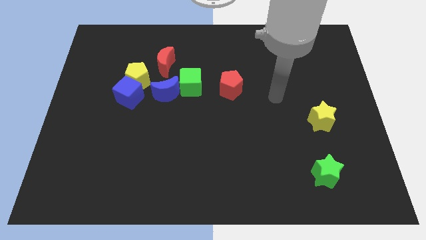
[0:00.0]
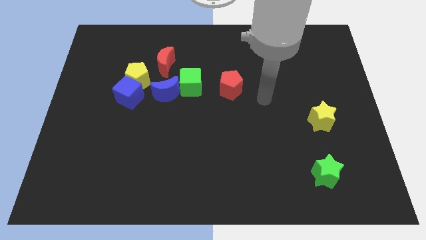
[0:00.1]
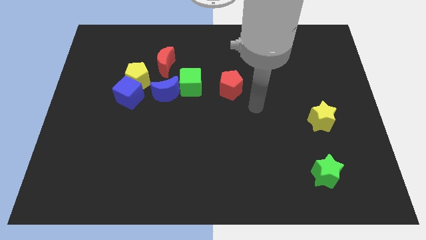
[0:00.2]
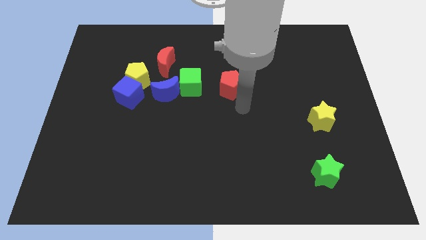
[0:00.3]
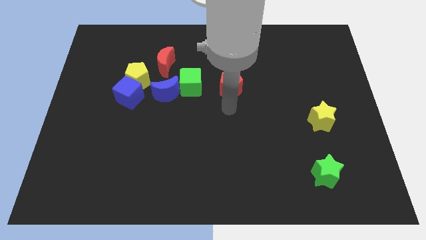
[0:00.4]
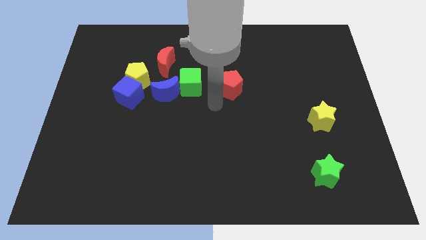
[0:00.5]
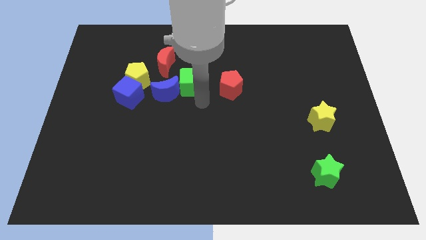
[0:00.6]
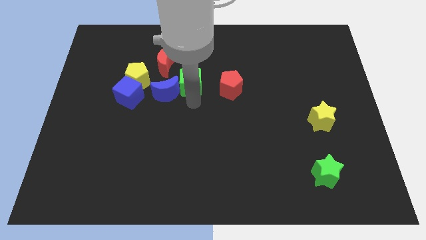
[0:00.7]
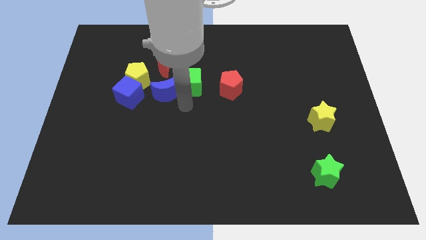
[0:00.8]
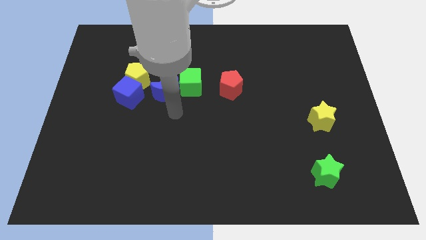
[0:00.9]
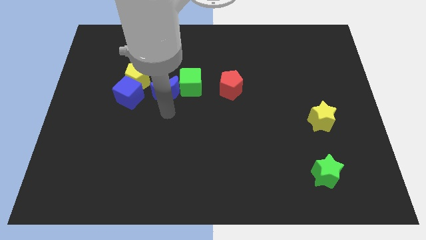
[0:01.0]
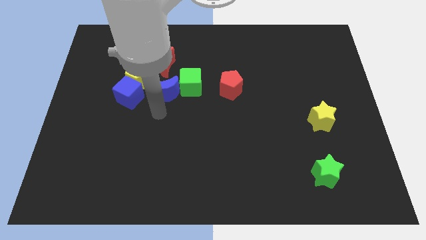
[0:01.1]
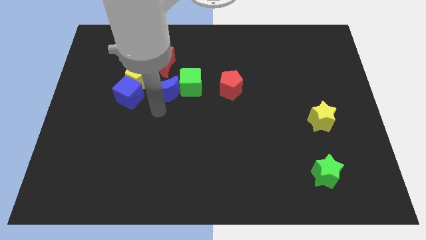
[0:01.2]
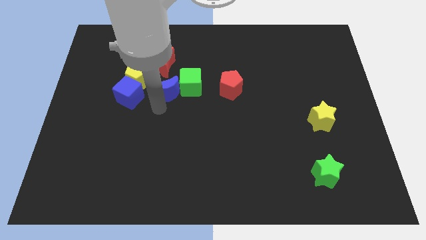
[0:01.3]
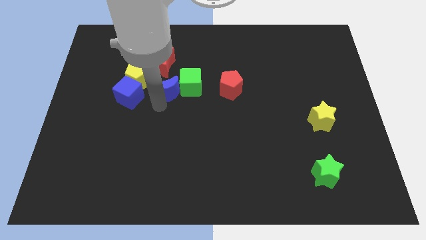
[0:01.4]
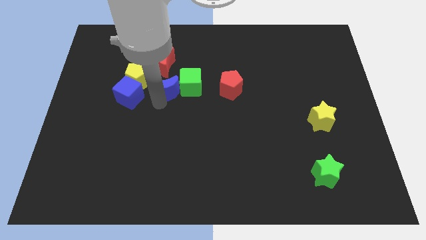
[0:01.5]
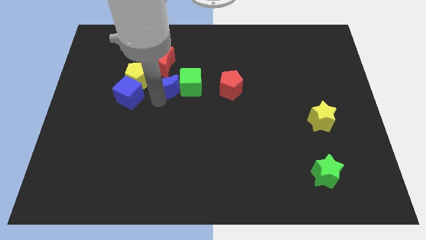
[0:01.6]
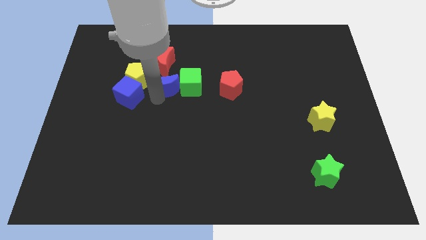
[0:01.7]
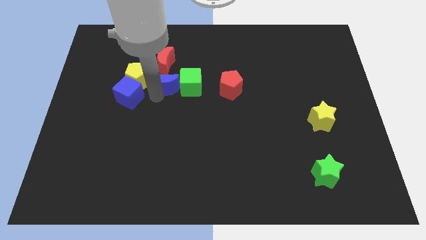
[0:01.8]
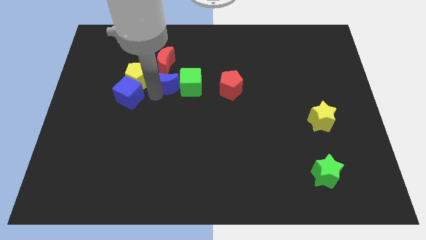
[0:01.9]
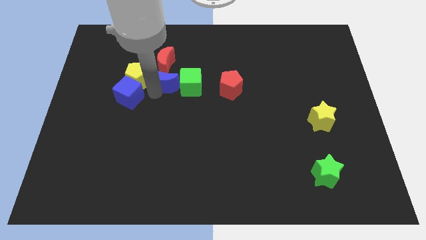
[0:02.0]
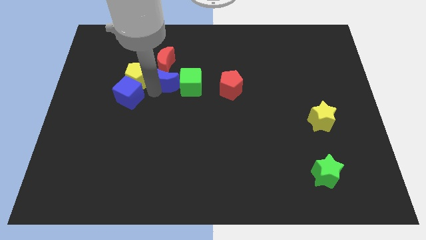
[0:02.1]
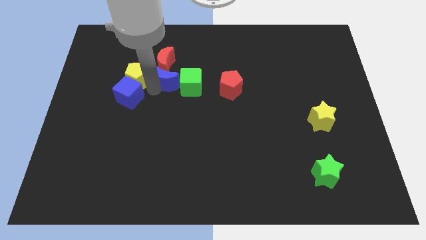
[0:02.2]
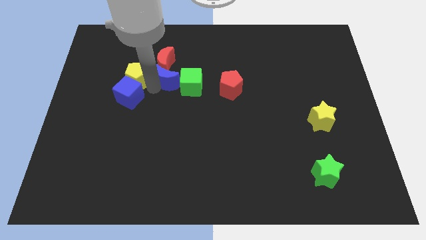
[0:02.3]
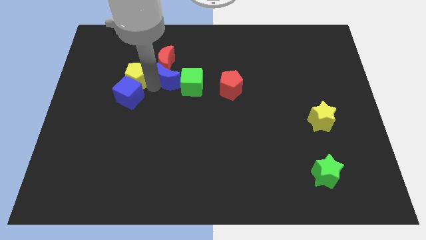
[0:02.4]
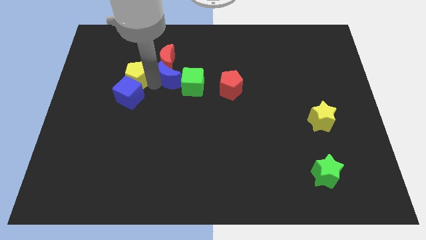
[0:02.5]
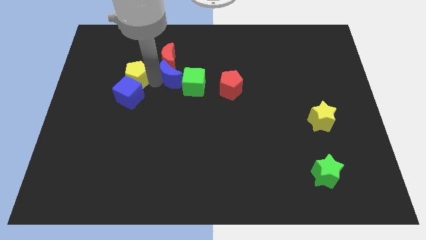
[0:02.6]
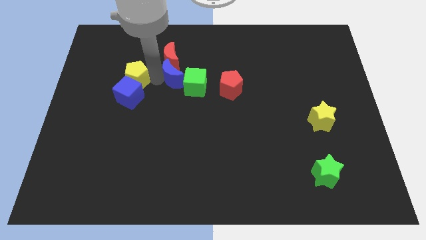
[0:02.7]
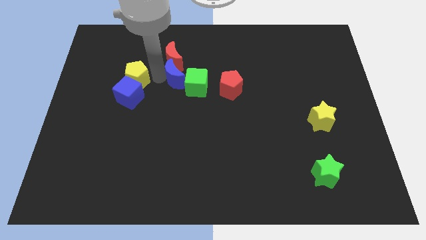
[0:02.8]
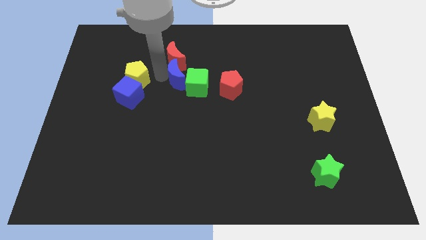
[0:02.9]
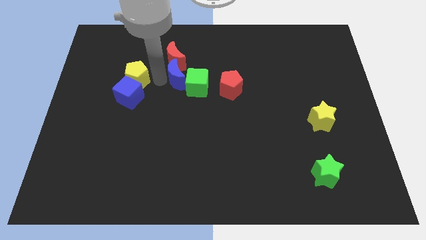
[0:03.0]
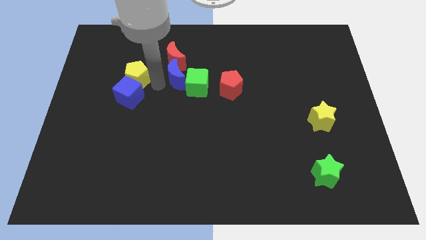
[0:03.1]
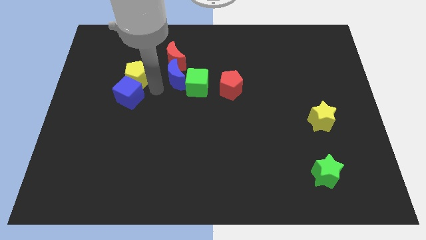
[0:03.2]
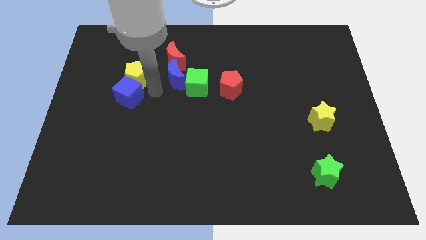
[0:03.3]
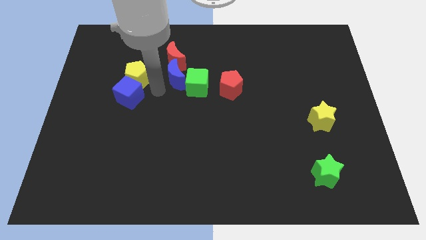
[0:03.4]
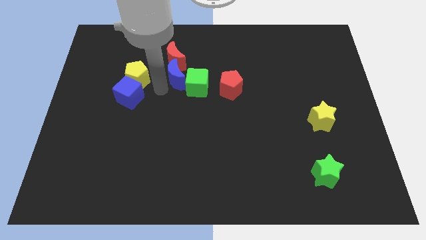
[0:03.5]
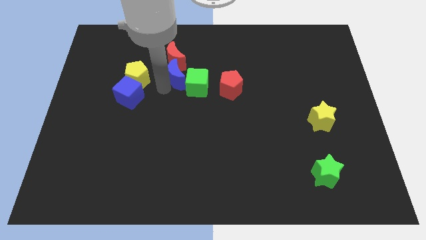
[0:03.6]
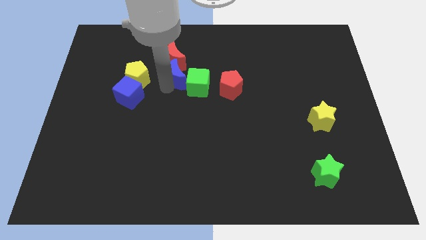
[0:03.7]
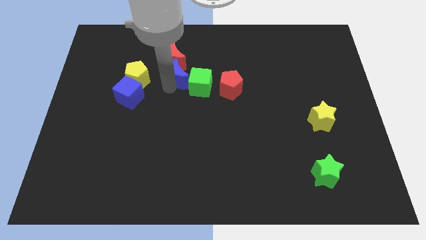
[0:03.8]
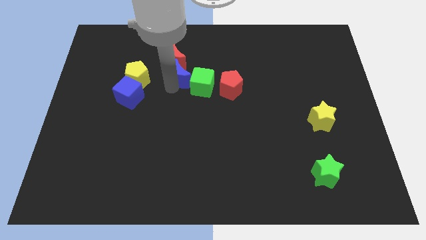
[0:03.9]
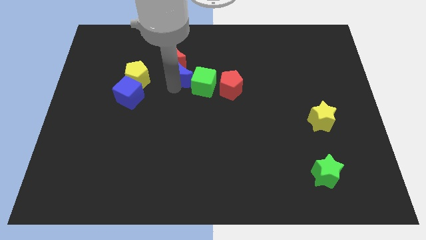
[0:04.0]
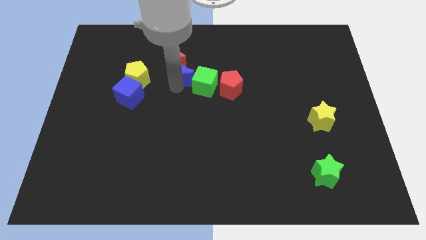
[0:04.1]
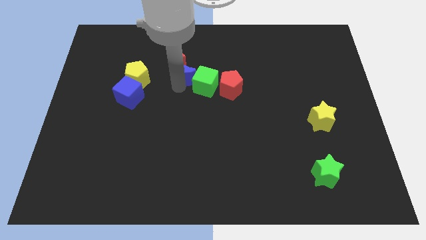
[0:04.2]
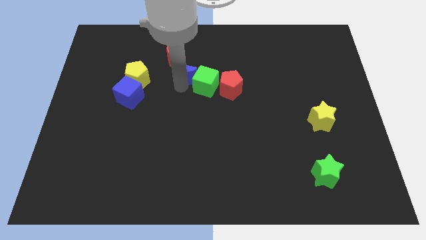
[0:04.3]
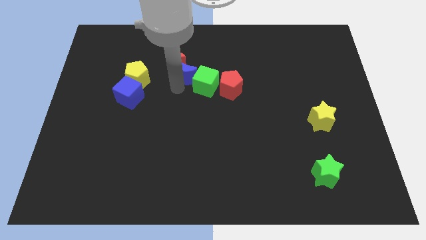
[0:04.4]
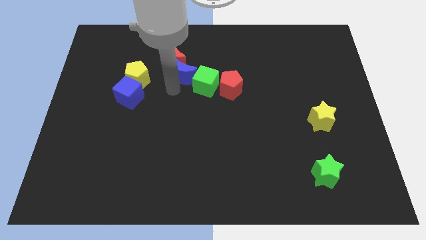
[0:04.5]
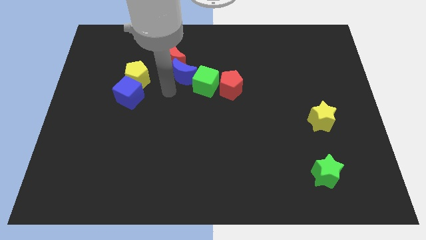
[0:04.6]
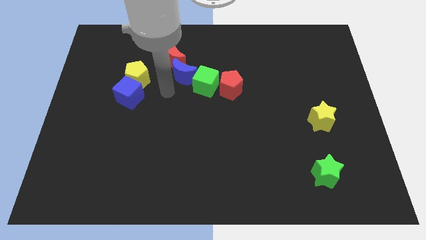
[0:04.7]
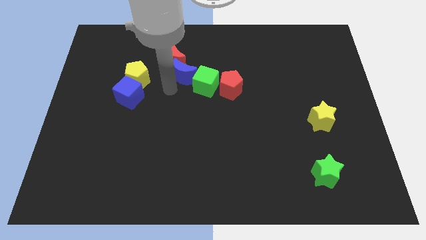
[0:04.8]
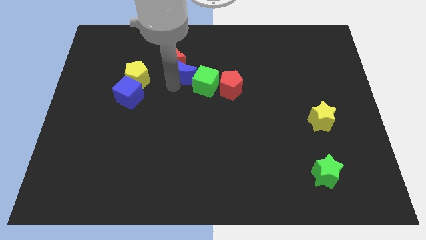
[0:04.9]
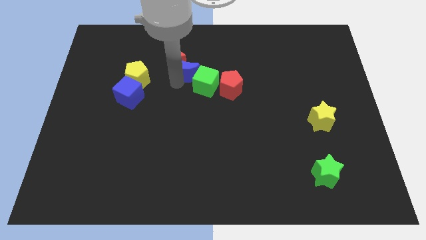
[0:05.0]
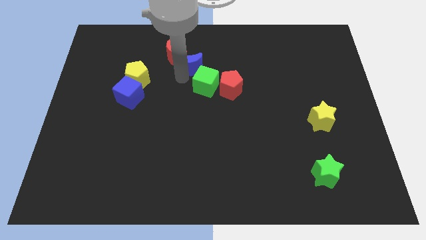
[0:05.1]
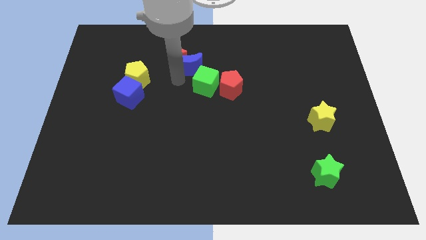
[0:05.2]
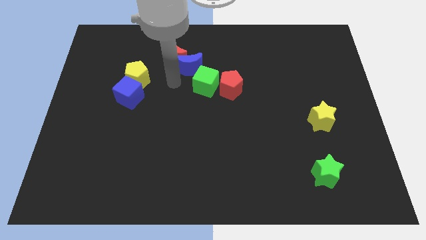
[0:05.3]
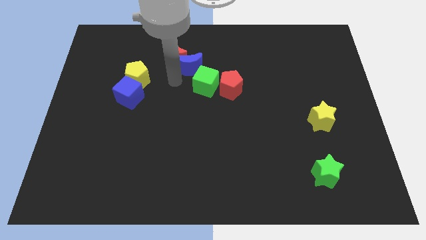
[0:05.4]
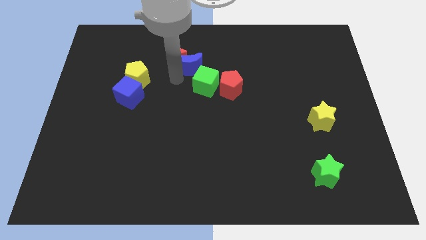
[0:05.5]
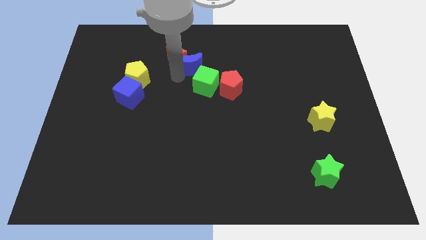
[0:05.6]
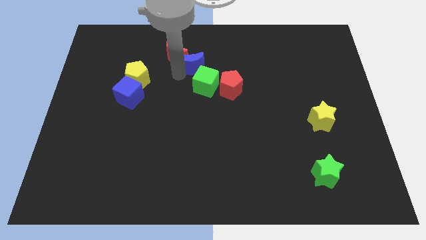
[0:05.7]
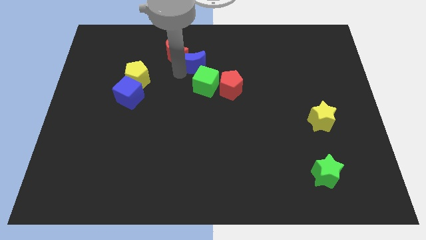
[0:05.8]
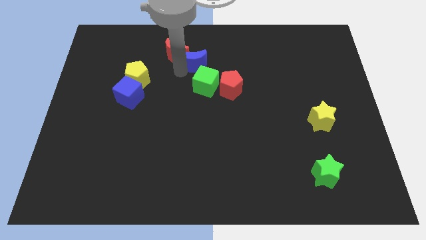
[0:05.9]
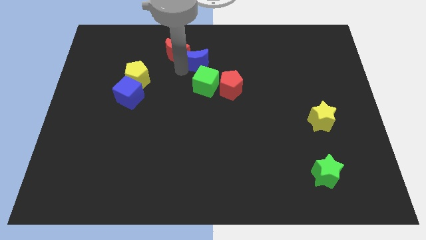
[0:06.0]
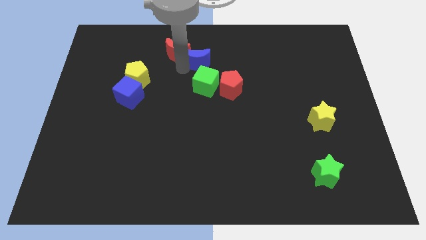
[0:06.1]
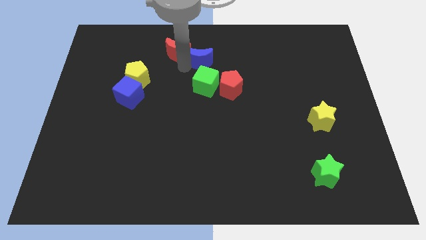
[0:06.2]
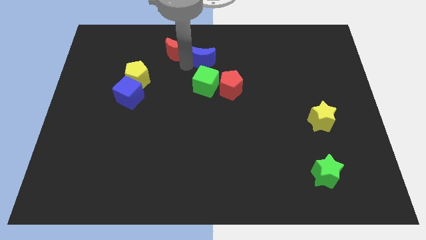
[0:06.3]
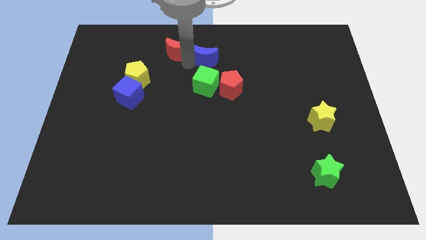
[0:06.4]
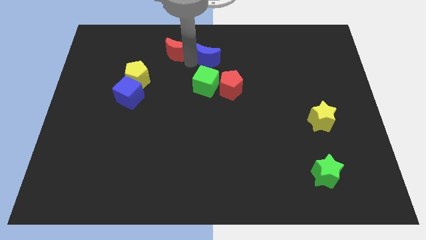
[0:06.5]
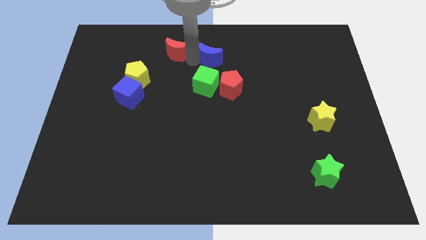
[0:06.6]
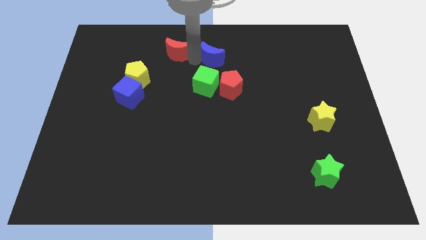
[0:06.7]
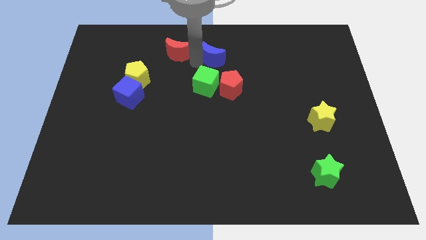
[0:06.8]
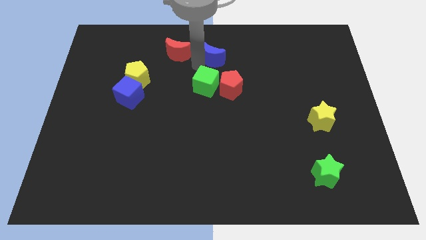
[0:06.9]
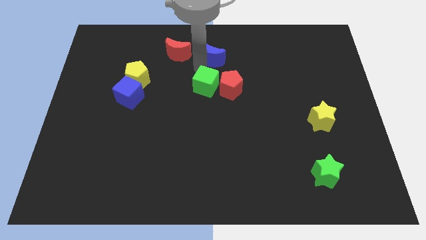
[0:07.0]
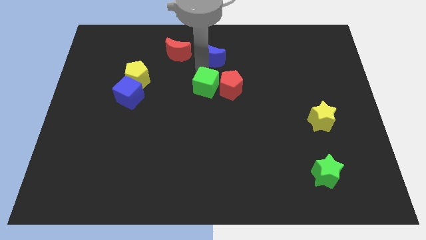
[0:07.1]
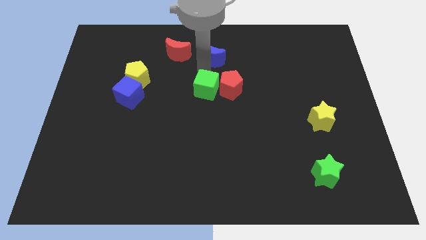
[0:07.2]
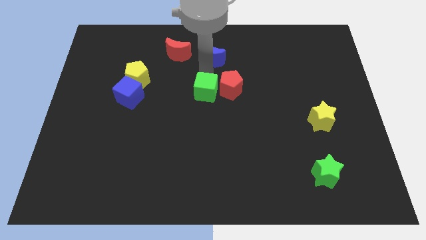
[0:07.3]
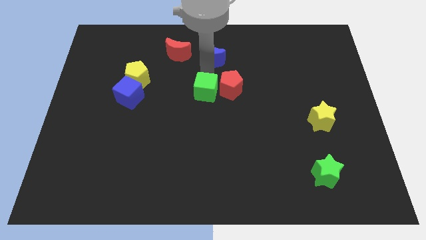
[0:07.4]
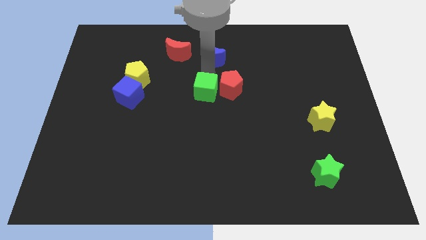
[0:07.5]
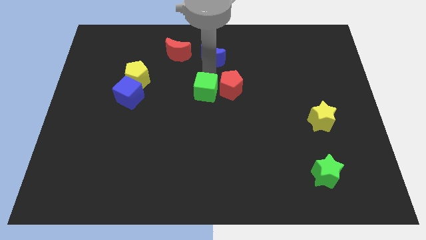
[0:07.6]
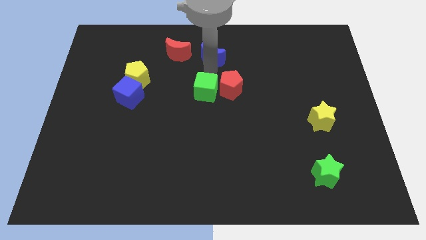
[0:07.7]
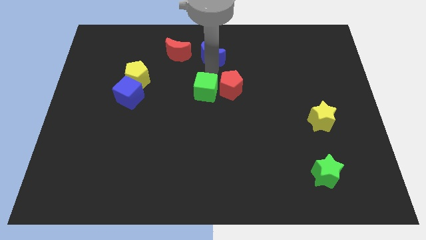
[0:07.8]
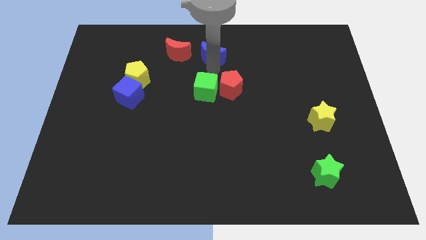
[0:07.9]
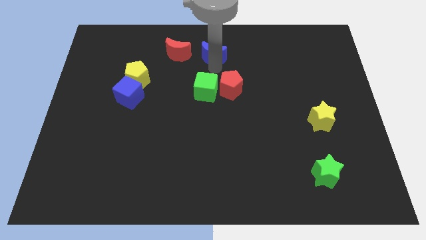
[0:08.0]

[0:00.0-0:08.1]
move the blue moon to the top

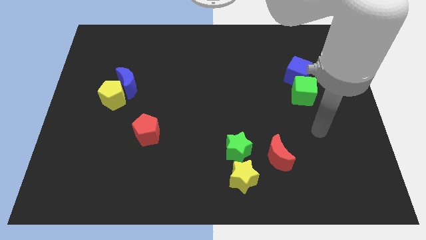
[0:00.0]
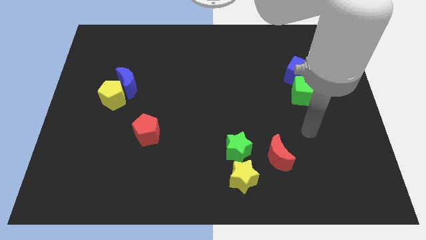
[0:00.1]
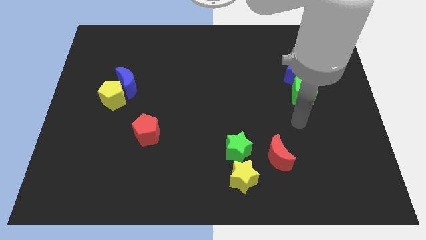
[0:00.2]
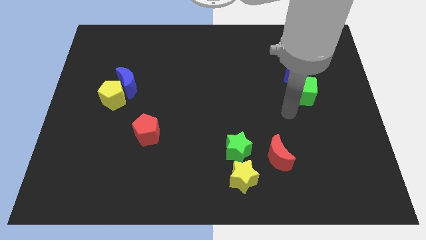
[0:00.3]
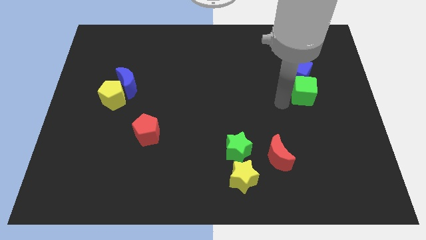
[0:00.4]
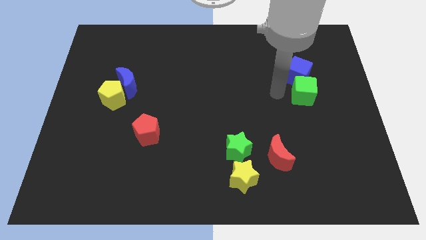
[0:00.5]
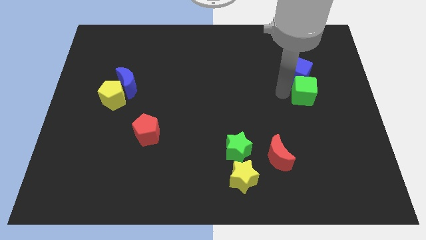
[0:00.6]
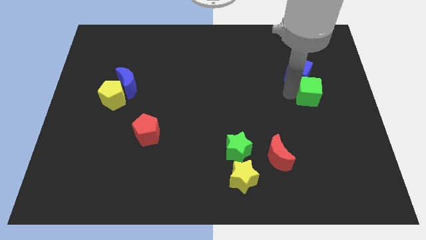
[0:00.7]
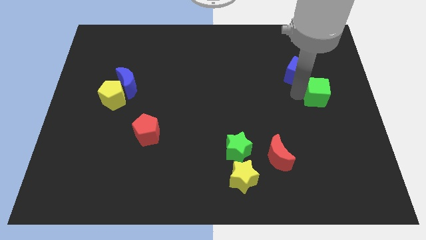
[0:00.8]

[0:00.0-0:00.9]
move the green cube to the right side of the board
